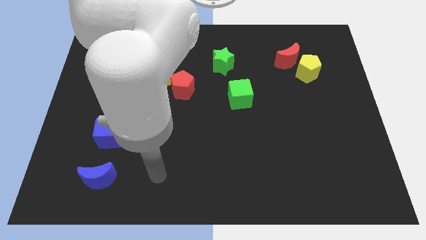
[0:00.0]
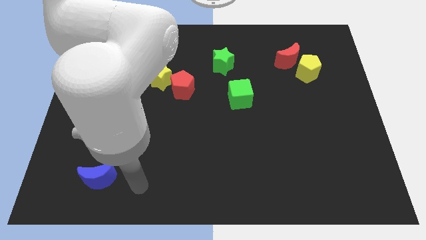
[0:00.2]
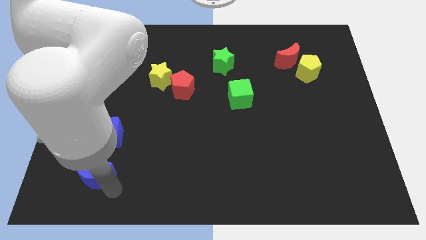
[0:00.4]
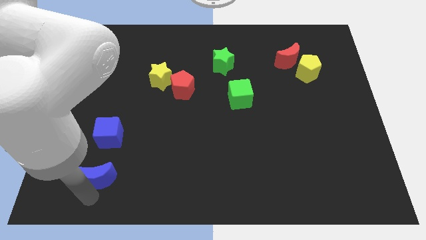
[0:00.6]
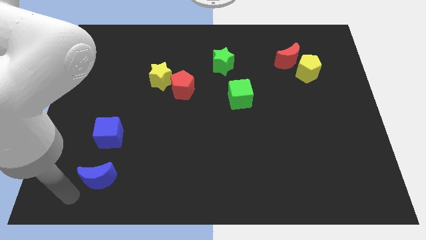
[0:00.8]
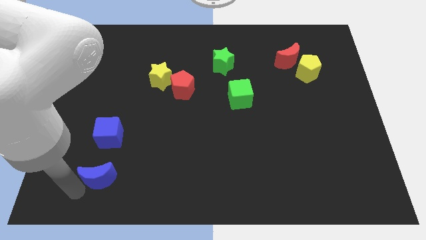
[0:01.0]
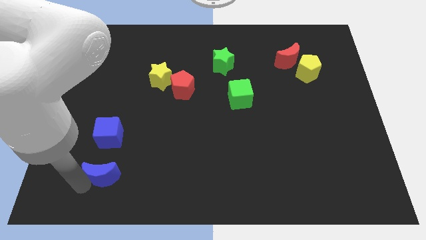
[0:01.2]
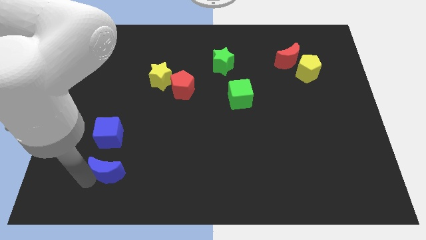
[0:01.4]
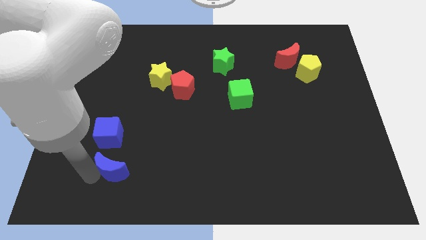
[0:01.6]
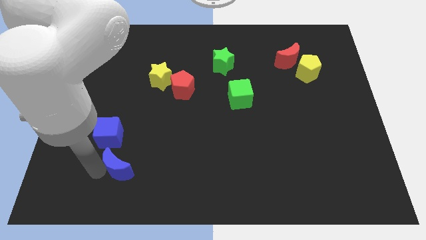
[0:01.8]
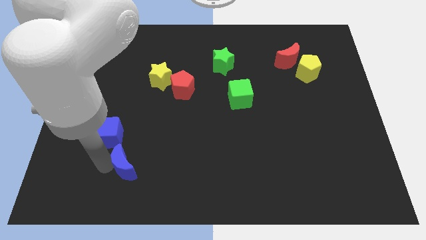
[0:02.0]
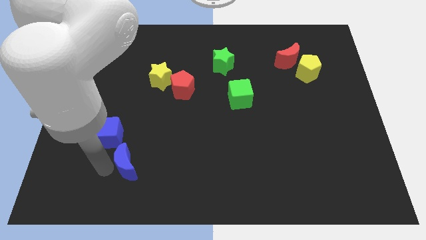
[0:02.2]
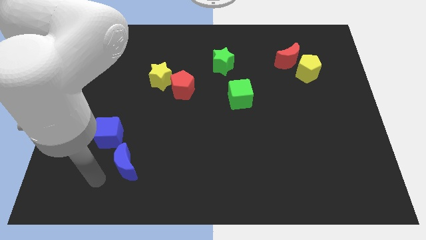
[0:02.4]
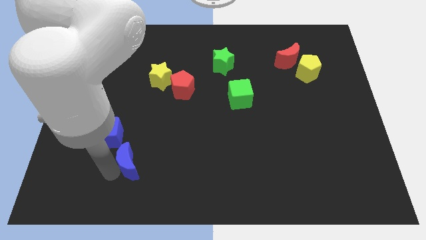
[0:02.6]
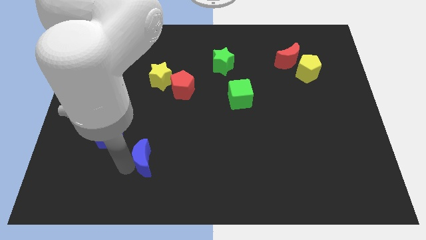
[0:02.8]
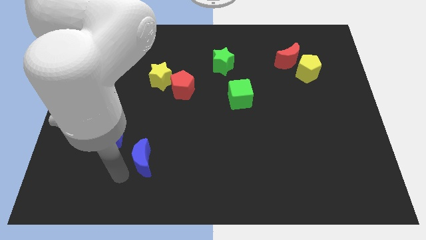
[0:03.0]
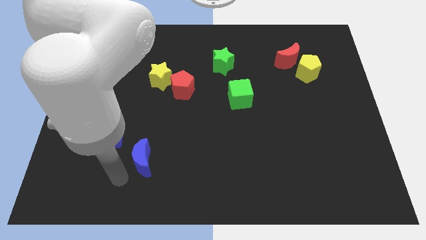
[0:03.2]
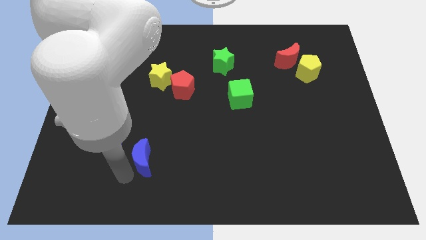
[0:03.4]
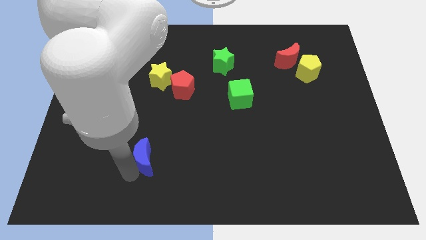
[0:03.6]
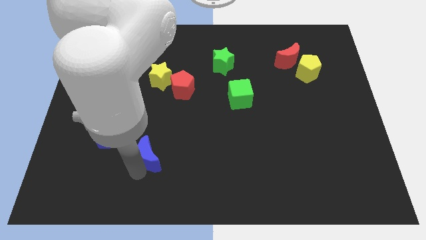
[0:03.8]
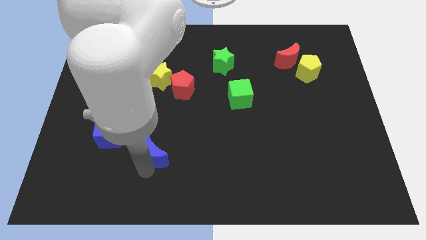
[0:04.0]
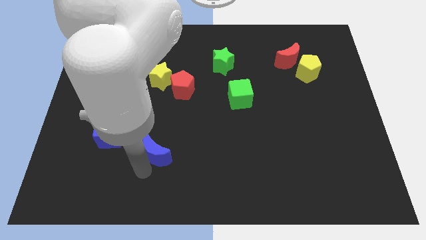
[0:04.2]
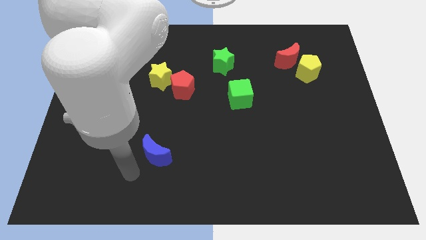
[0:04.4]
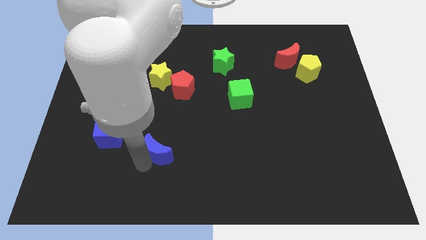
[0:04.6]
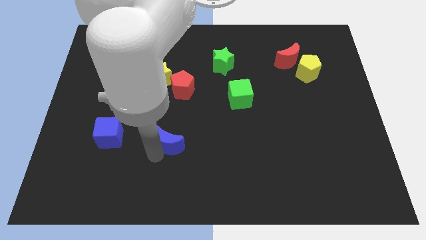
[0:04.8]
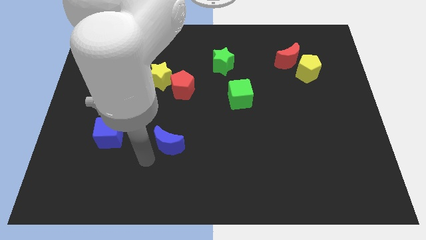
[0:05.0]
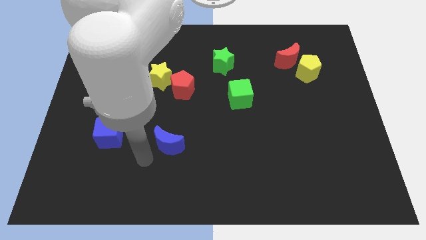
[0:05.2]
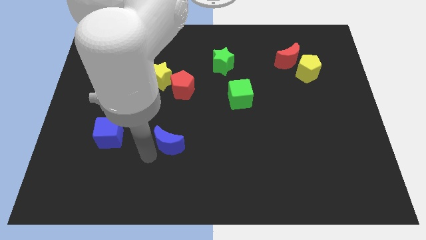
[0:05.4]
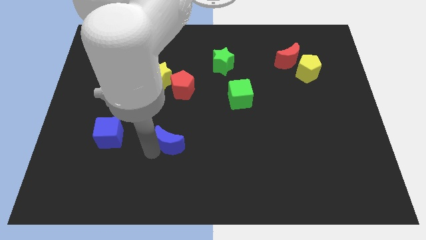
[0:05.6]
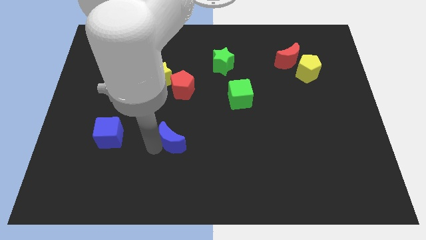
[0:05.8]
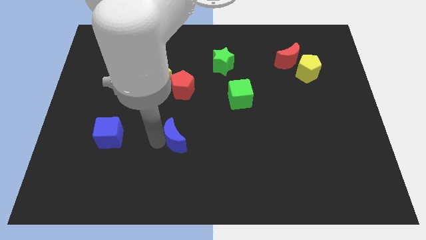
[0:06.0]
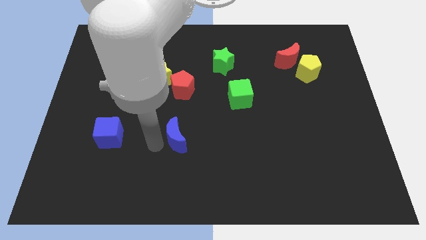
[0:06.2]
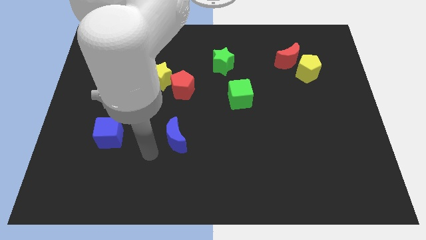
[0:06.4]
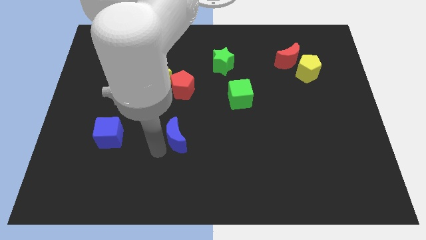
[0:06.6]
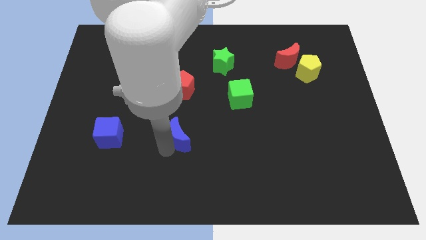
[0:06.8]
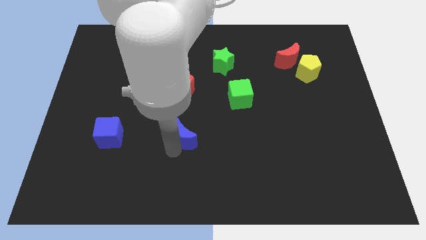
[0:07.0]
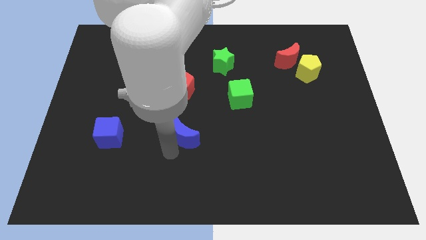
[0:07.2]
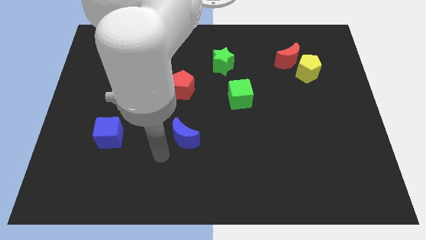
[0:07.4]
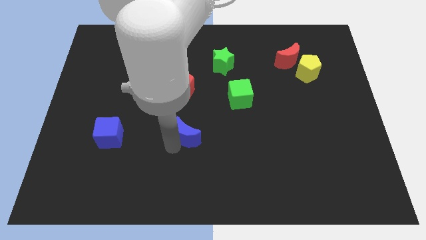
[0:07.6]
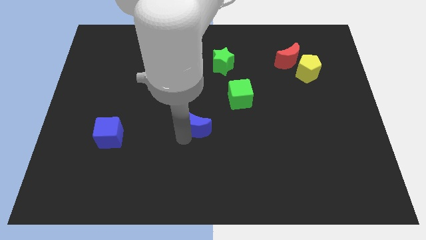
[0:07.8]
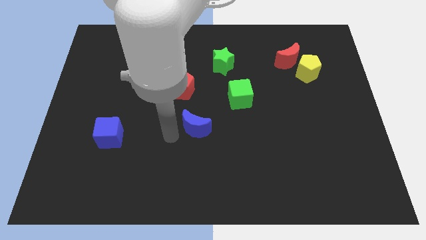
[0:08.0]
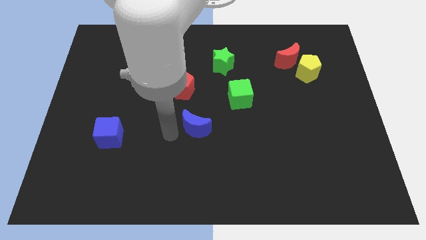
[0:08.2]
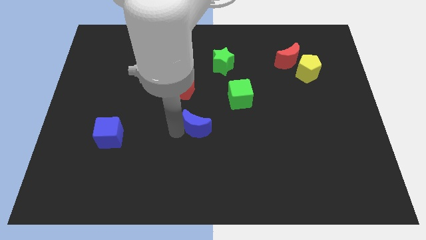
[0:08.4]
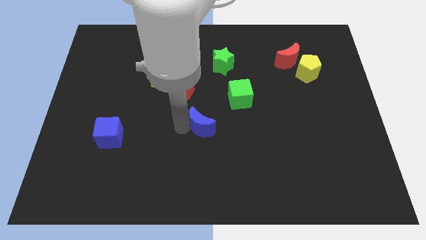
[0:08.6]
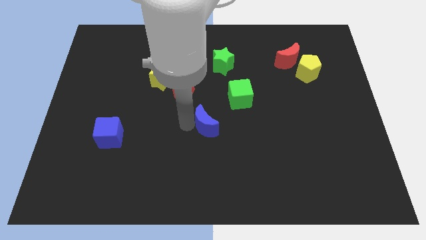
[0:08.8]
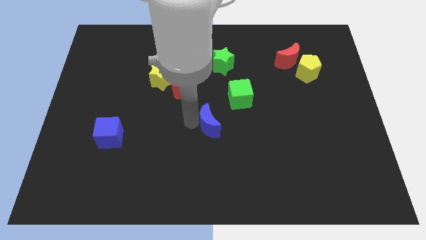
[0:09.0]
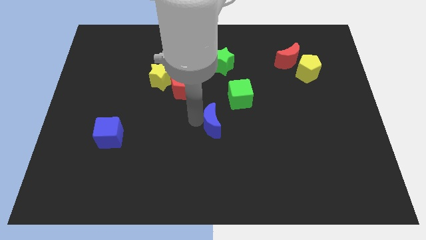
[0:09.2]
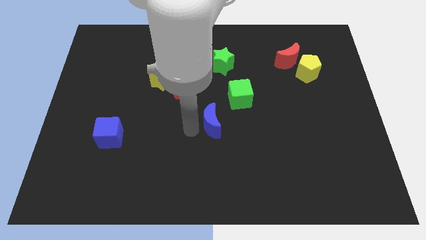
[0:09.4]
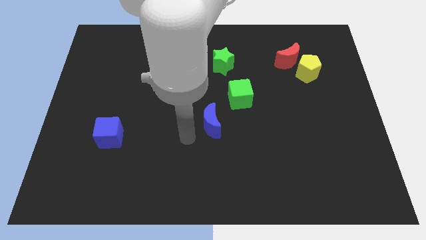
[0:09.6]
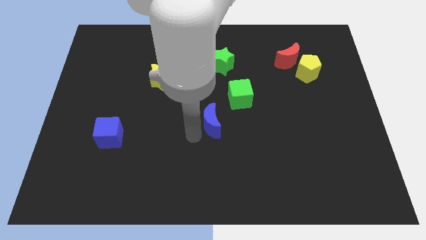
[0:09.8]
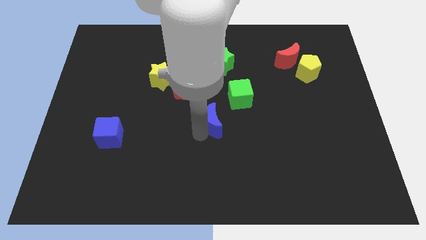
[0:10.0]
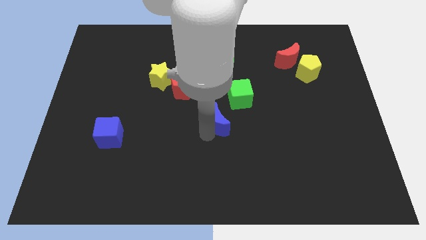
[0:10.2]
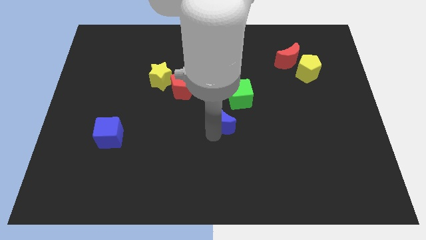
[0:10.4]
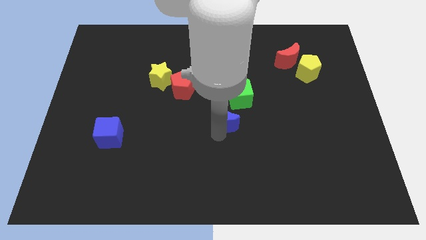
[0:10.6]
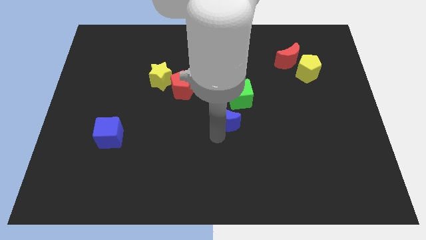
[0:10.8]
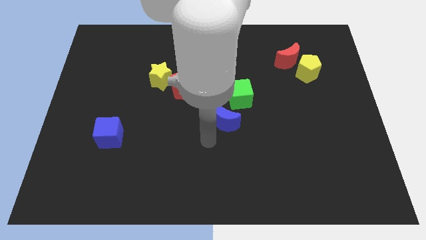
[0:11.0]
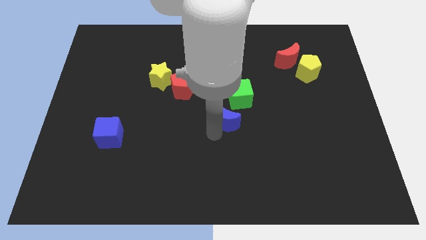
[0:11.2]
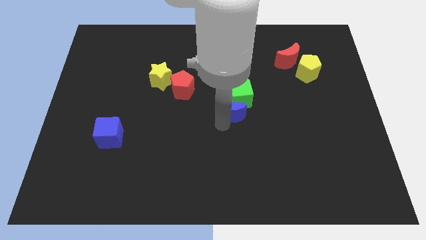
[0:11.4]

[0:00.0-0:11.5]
put the blue moon to the green cube

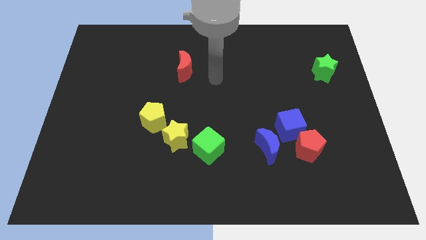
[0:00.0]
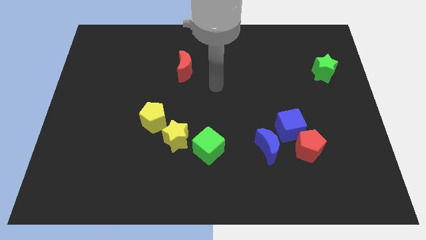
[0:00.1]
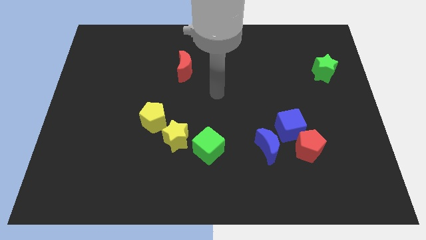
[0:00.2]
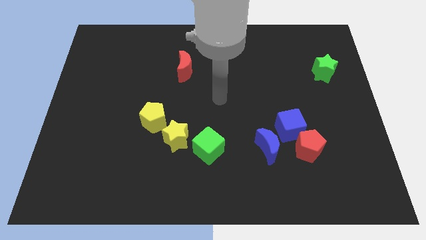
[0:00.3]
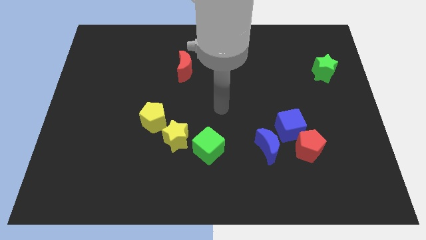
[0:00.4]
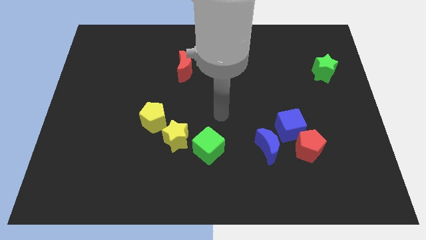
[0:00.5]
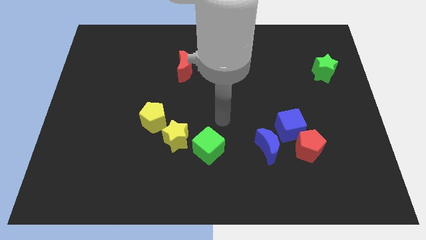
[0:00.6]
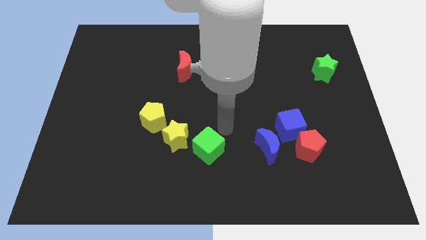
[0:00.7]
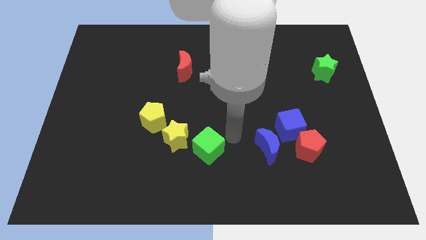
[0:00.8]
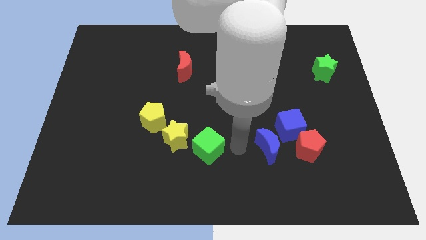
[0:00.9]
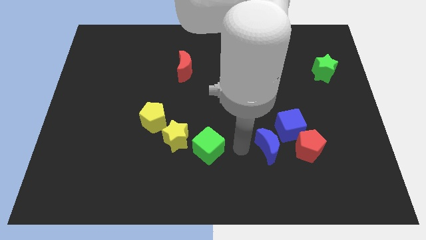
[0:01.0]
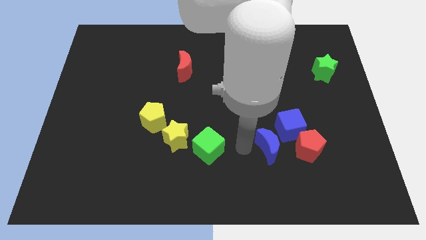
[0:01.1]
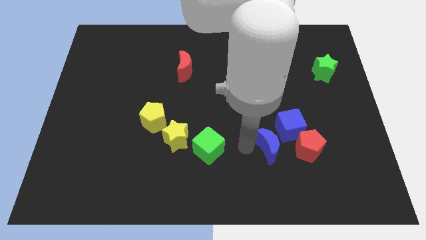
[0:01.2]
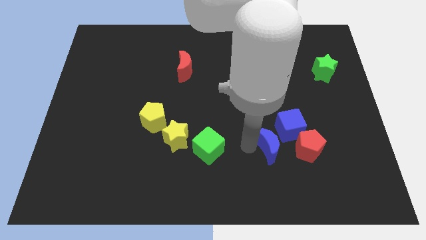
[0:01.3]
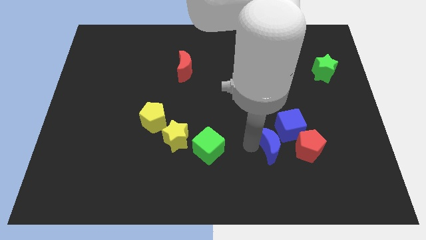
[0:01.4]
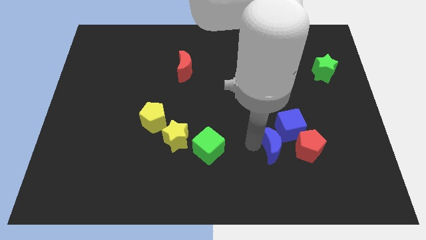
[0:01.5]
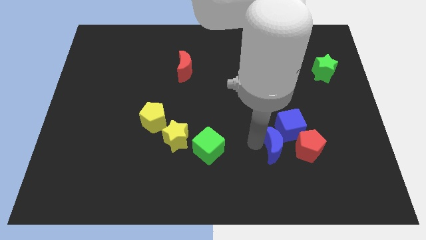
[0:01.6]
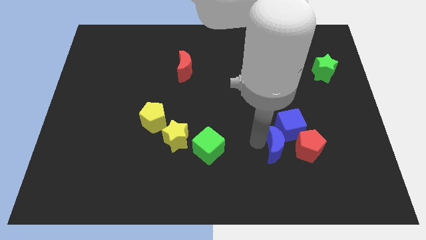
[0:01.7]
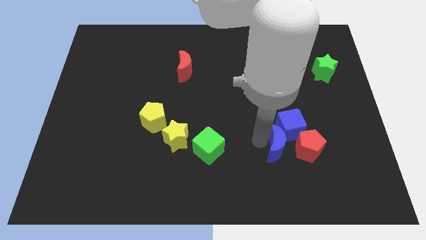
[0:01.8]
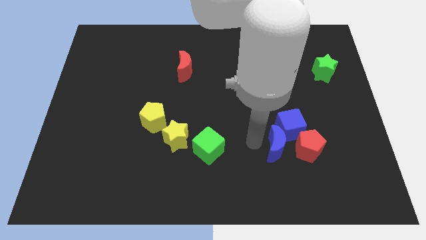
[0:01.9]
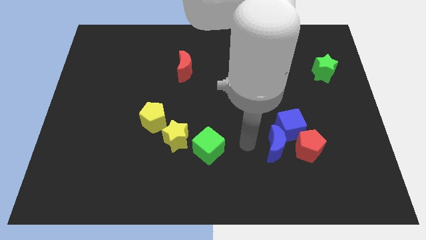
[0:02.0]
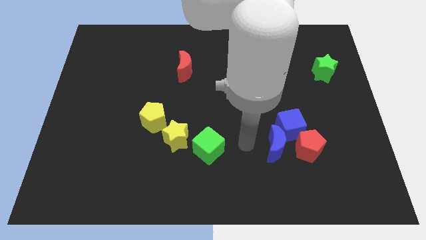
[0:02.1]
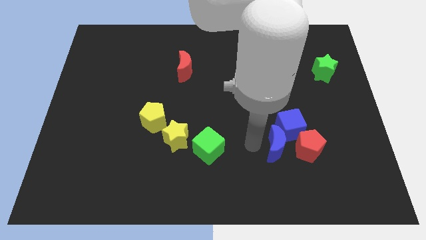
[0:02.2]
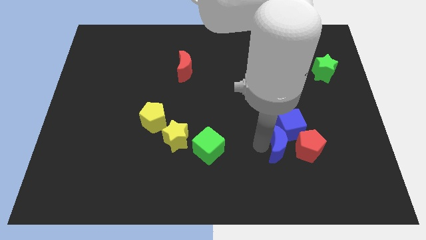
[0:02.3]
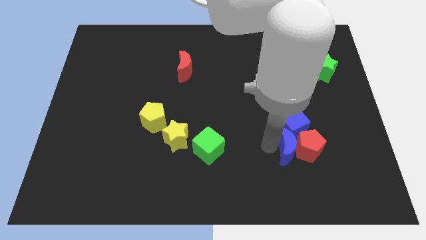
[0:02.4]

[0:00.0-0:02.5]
move the blue moon next to the red pentagon
